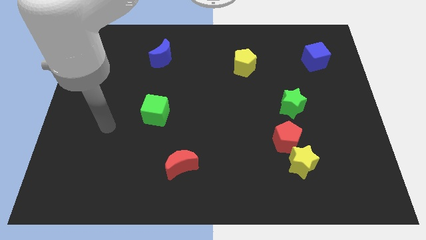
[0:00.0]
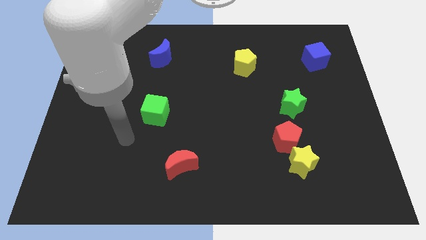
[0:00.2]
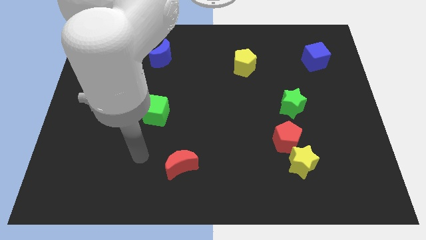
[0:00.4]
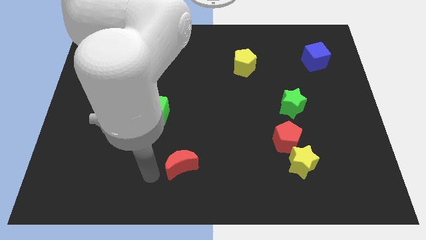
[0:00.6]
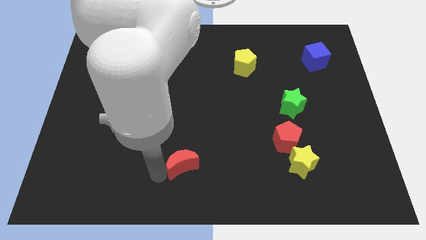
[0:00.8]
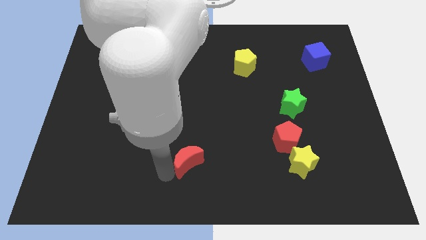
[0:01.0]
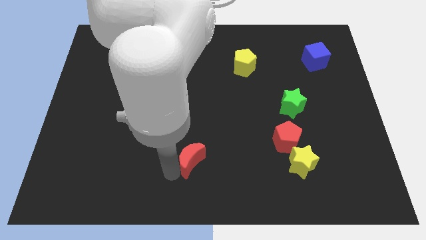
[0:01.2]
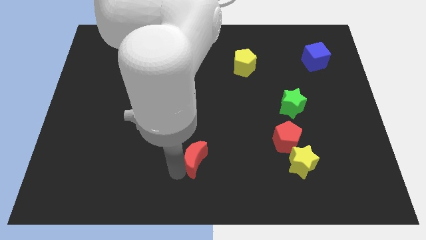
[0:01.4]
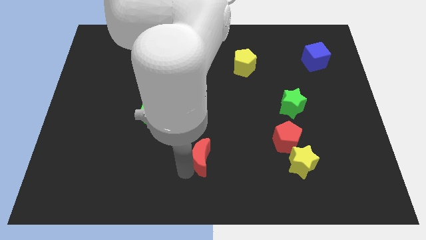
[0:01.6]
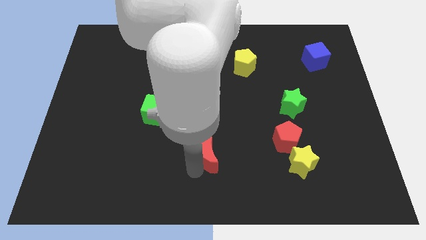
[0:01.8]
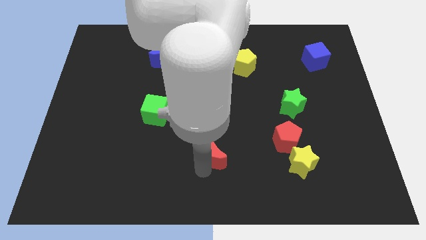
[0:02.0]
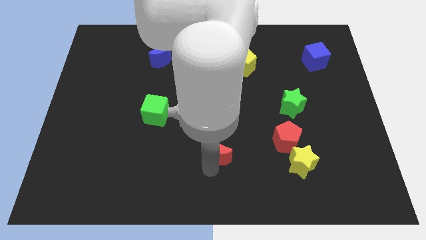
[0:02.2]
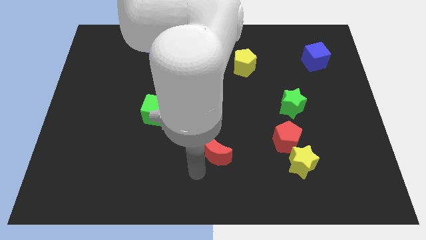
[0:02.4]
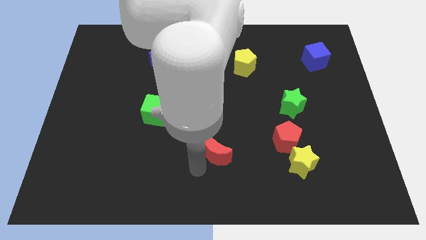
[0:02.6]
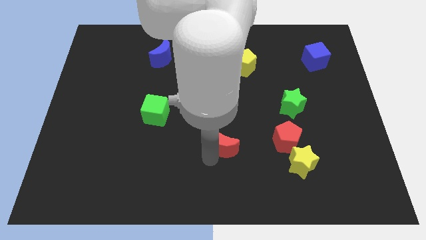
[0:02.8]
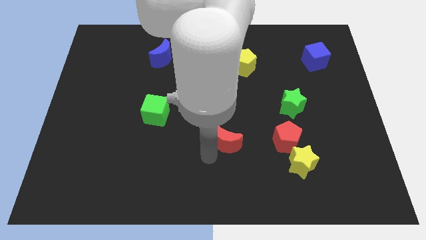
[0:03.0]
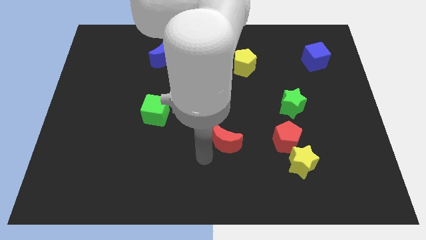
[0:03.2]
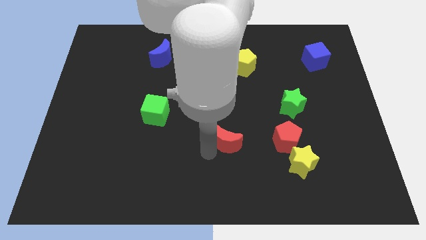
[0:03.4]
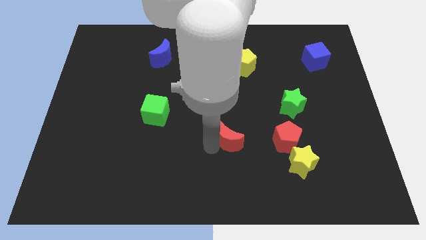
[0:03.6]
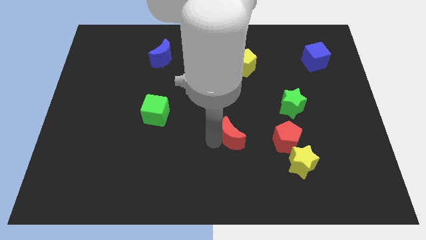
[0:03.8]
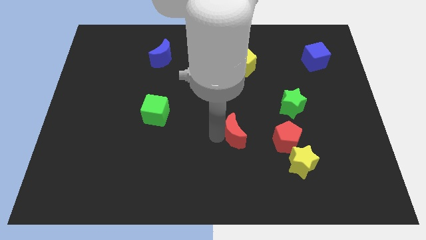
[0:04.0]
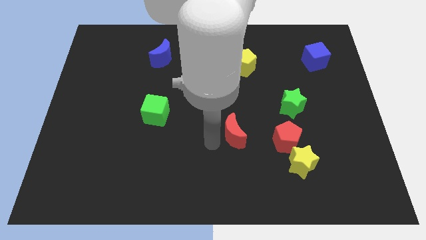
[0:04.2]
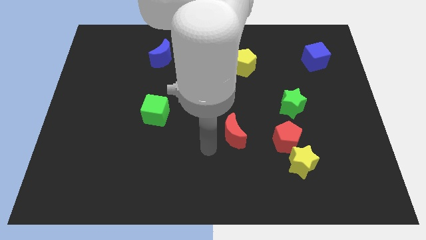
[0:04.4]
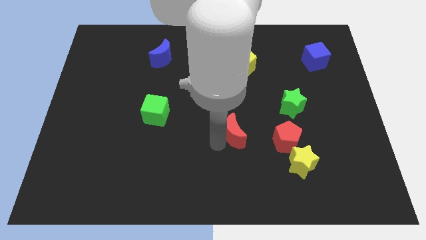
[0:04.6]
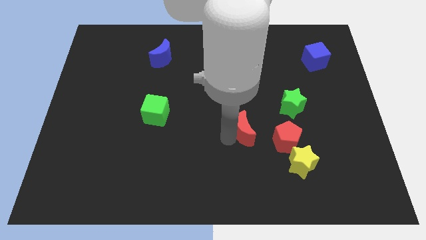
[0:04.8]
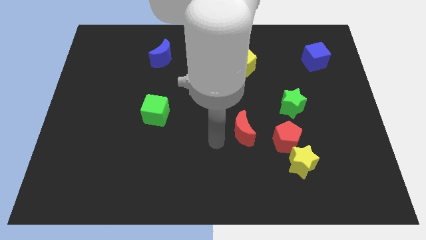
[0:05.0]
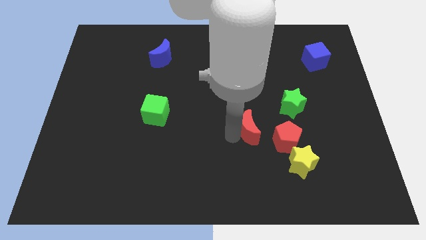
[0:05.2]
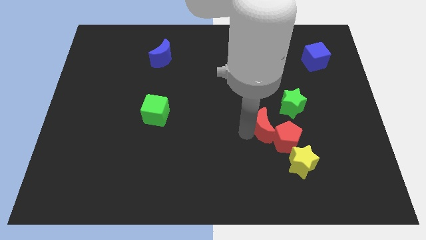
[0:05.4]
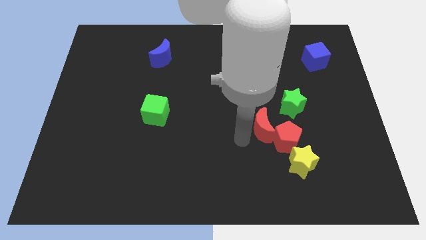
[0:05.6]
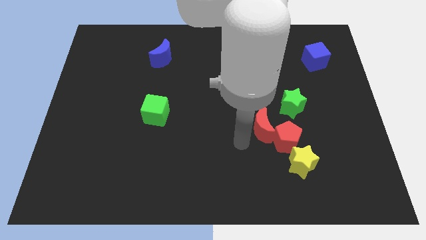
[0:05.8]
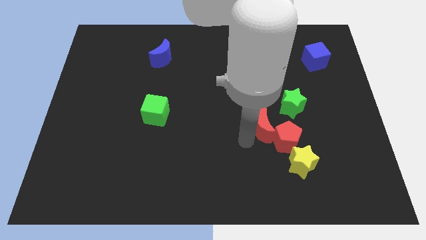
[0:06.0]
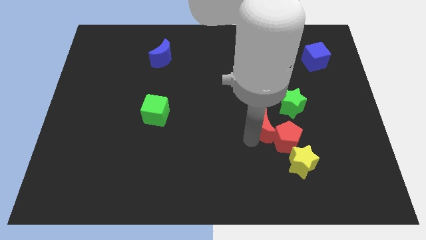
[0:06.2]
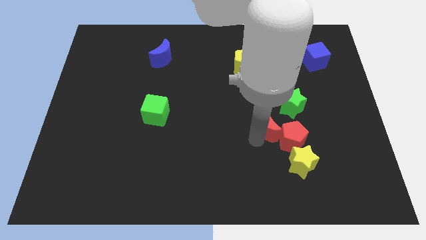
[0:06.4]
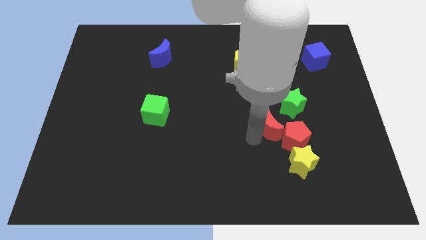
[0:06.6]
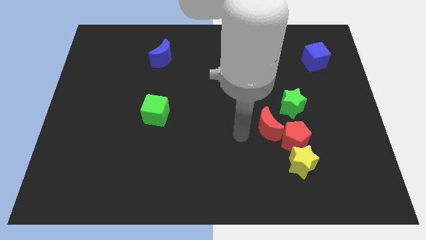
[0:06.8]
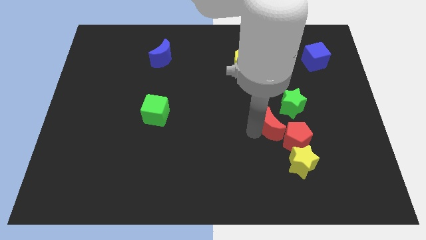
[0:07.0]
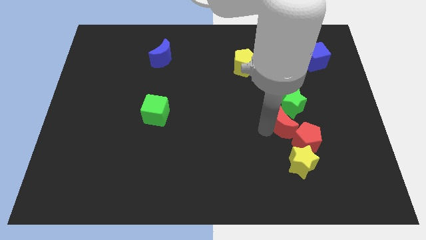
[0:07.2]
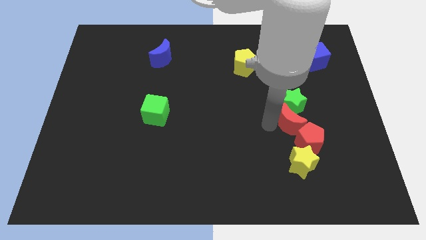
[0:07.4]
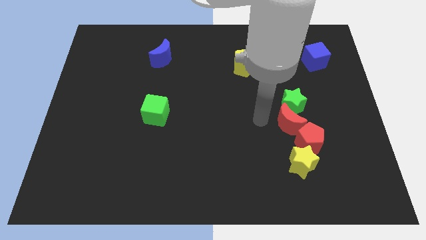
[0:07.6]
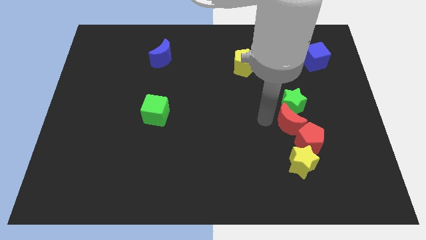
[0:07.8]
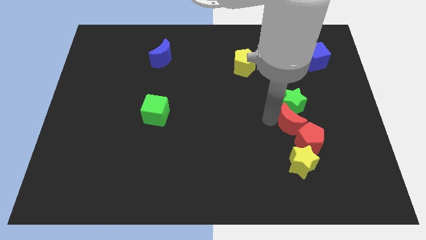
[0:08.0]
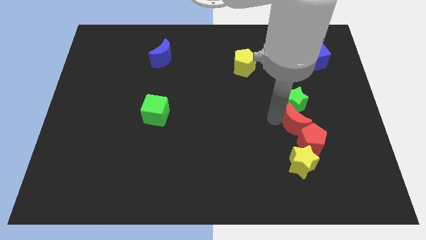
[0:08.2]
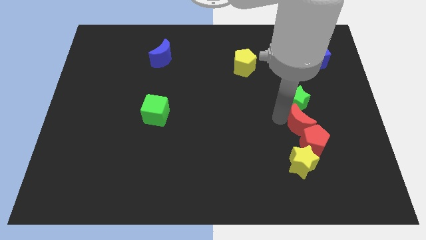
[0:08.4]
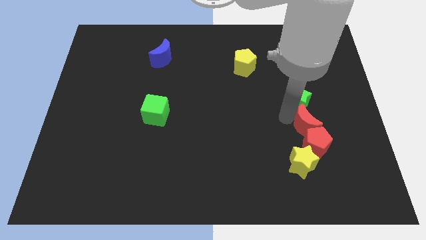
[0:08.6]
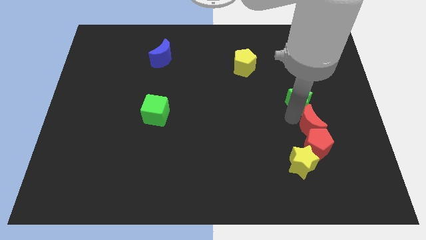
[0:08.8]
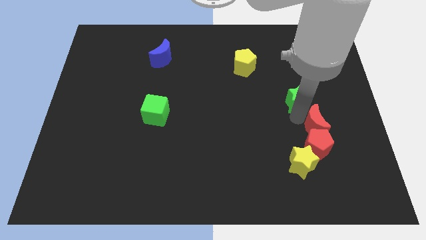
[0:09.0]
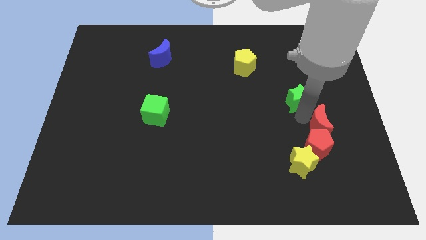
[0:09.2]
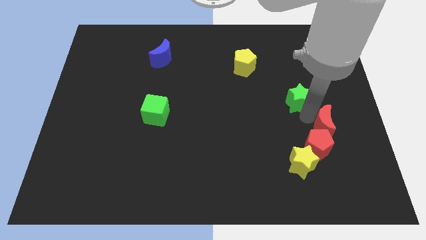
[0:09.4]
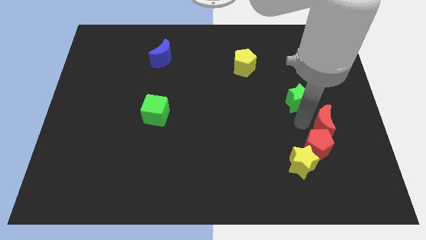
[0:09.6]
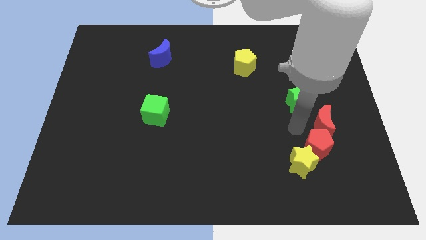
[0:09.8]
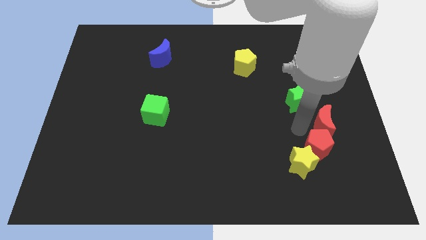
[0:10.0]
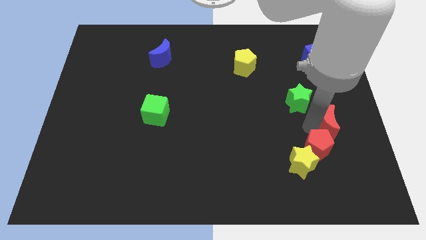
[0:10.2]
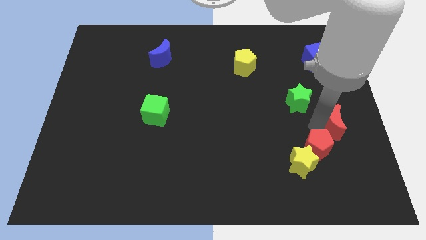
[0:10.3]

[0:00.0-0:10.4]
put the red moon to the right side

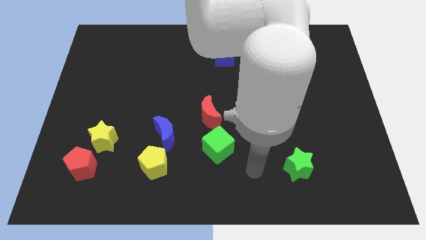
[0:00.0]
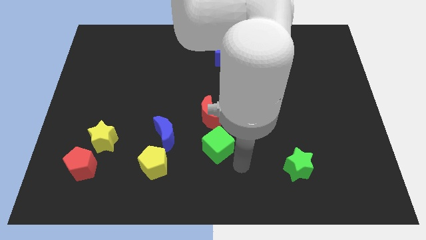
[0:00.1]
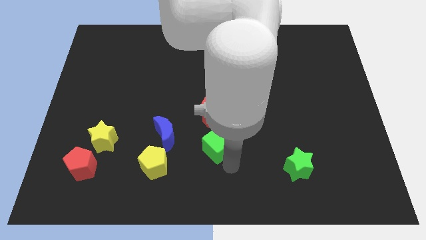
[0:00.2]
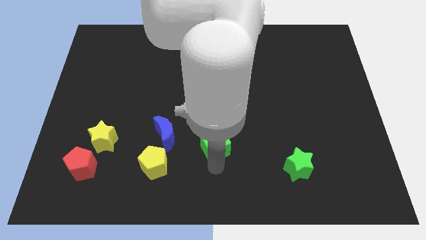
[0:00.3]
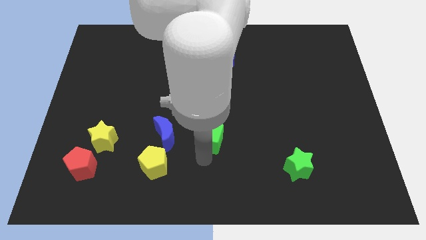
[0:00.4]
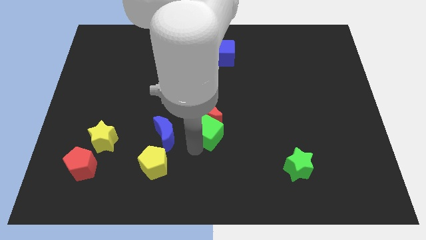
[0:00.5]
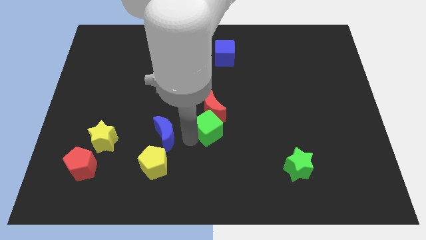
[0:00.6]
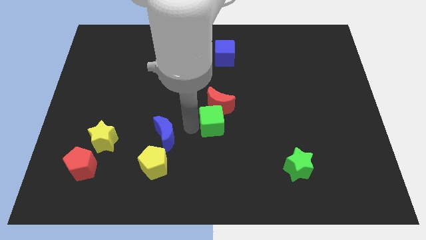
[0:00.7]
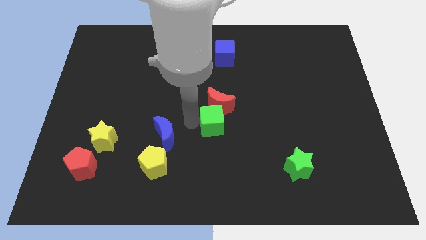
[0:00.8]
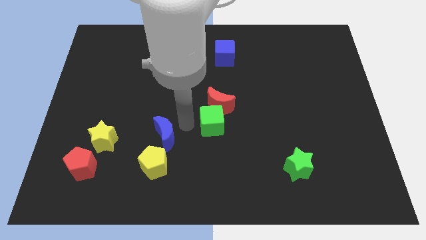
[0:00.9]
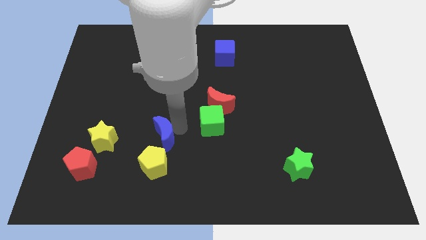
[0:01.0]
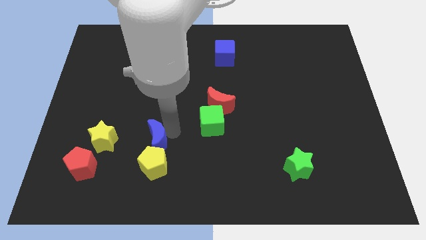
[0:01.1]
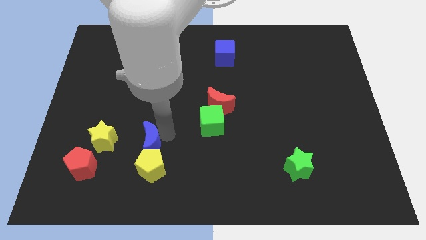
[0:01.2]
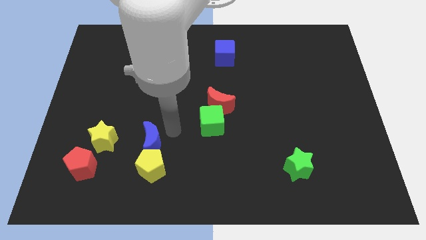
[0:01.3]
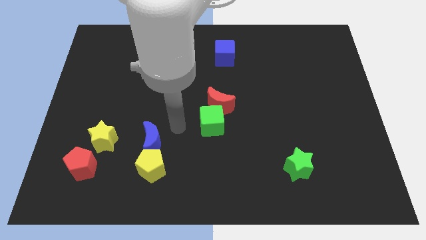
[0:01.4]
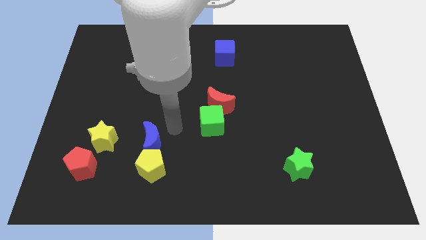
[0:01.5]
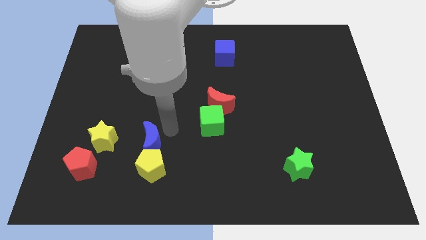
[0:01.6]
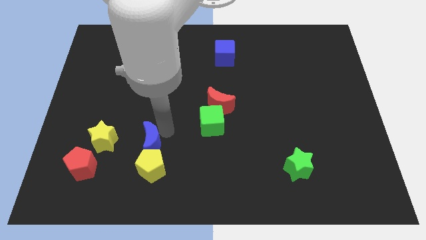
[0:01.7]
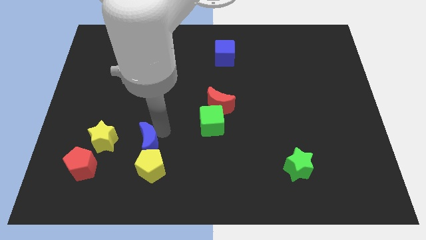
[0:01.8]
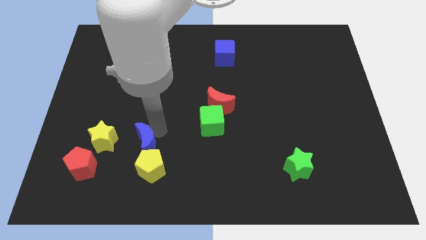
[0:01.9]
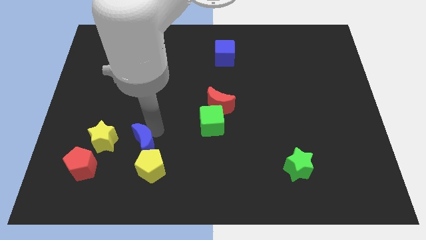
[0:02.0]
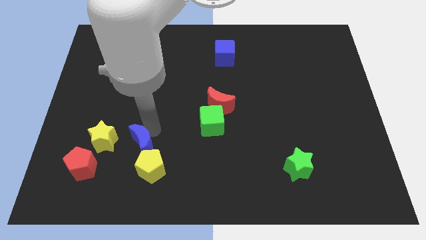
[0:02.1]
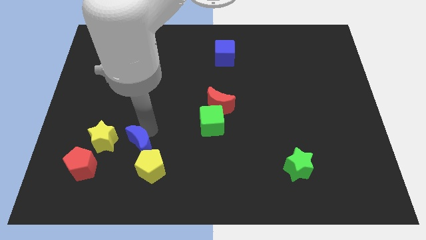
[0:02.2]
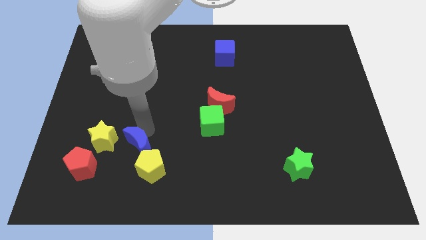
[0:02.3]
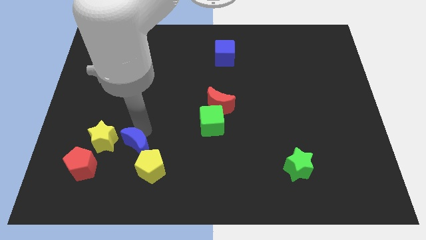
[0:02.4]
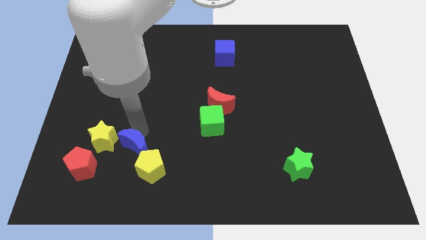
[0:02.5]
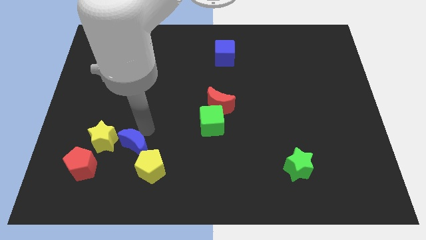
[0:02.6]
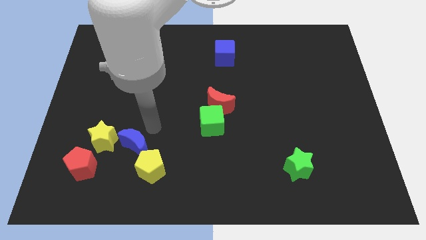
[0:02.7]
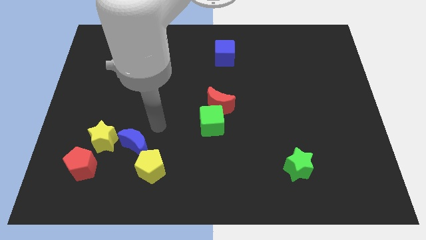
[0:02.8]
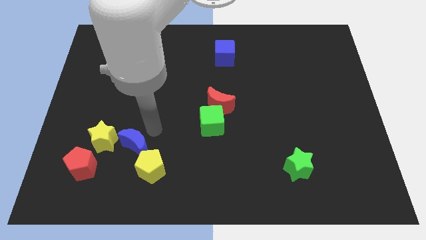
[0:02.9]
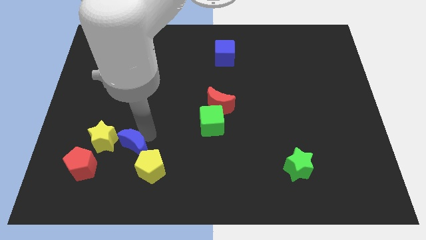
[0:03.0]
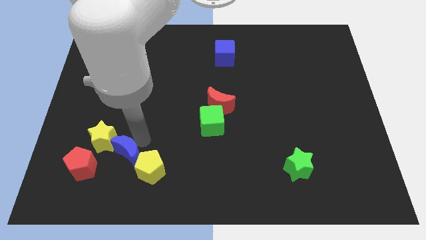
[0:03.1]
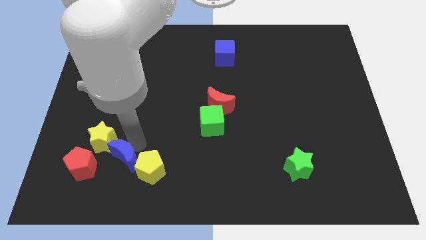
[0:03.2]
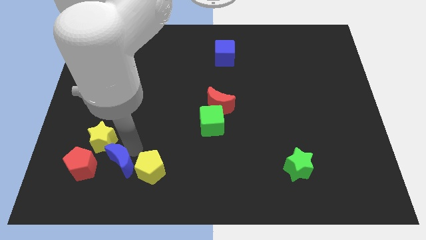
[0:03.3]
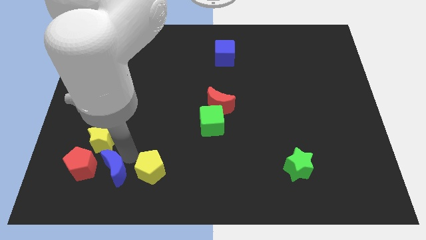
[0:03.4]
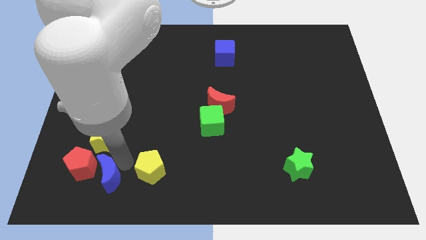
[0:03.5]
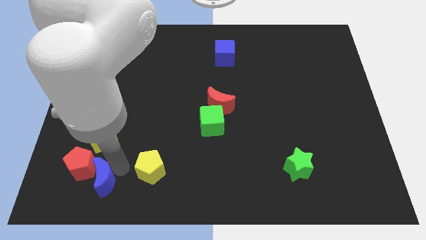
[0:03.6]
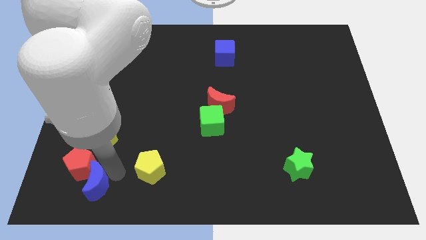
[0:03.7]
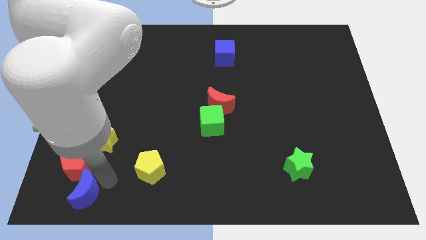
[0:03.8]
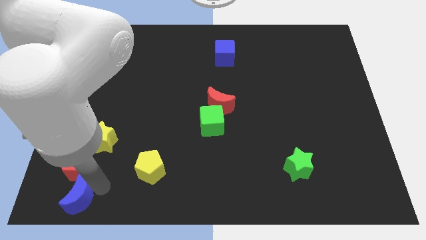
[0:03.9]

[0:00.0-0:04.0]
push the blue moon to the bottom left
